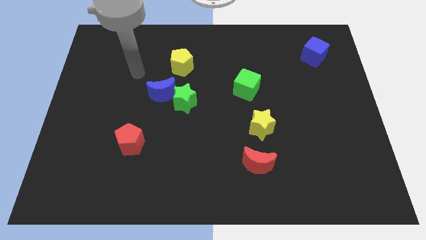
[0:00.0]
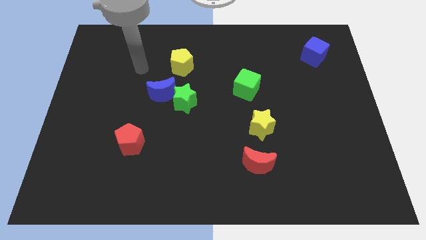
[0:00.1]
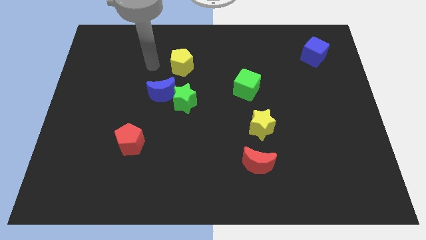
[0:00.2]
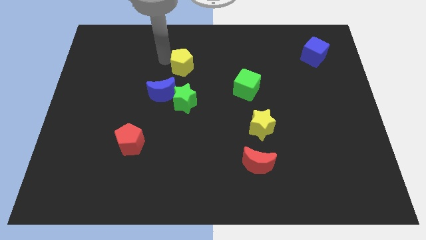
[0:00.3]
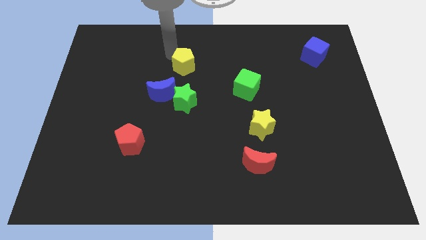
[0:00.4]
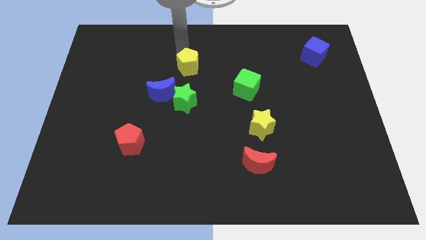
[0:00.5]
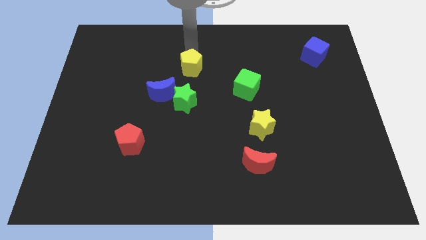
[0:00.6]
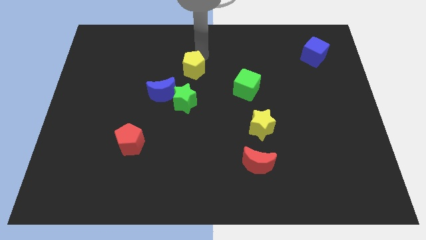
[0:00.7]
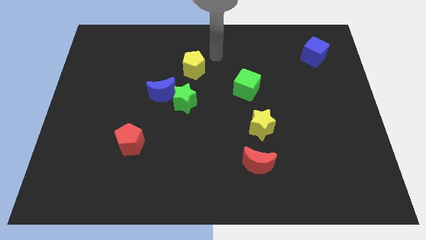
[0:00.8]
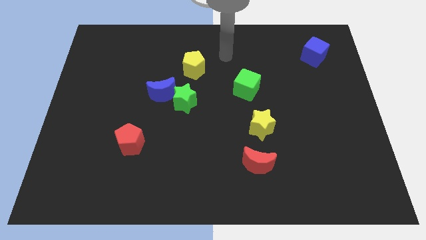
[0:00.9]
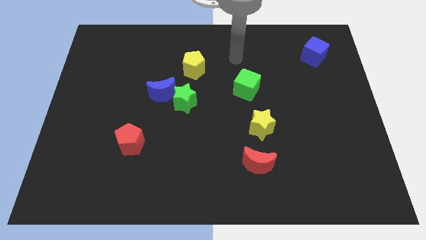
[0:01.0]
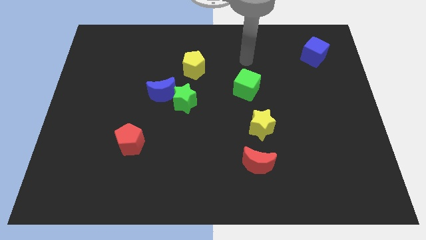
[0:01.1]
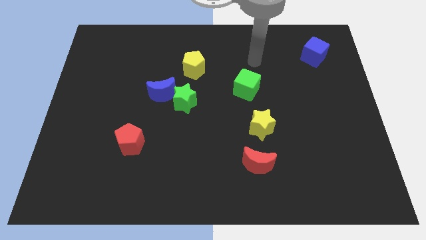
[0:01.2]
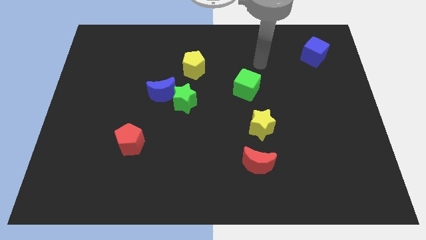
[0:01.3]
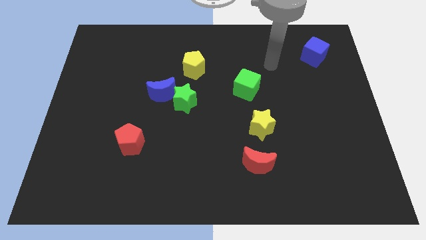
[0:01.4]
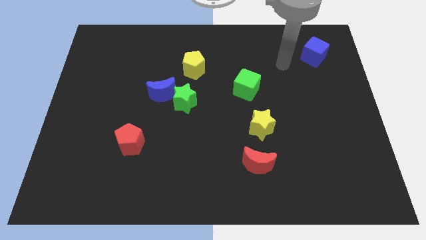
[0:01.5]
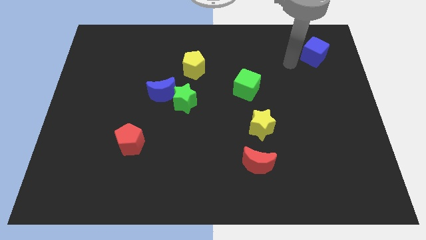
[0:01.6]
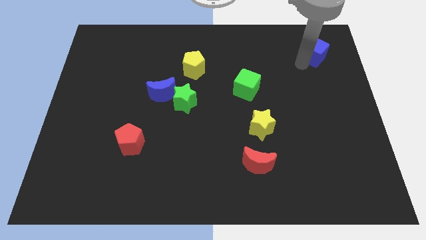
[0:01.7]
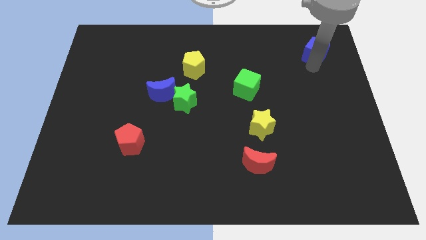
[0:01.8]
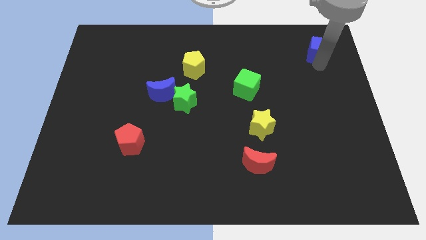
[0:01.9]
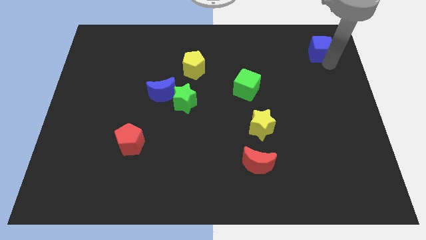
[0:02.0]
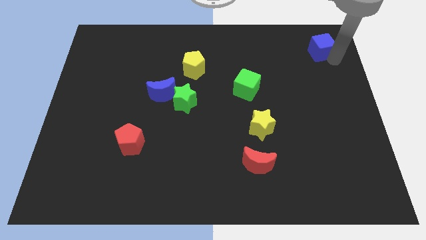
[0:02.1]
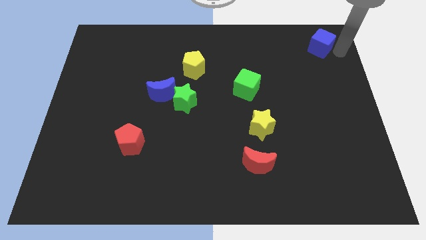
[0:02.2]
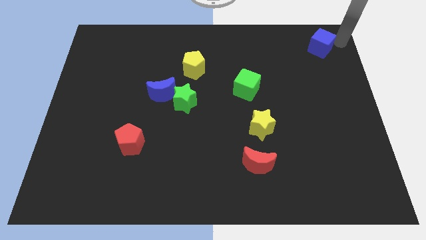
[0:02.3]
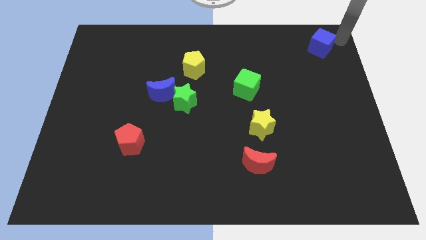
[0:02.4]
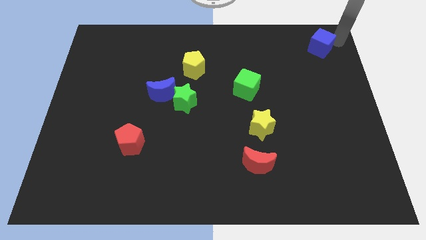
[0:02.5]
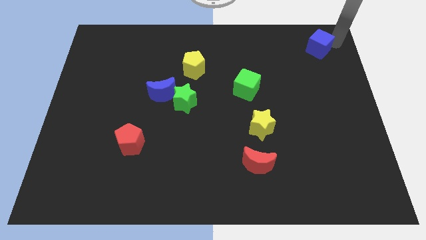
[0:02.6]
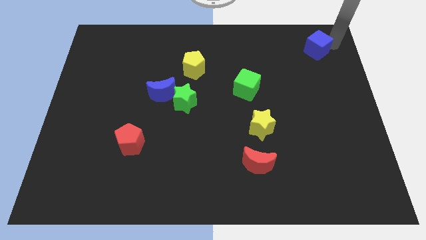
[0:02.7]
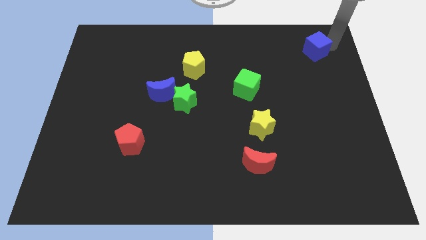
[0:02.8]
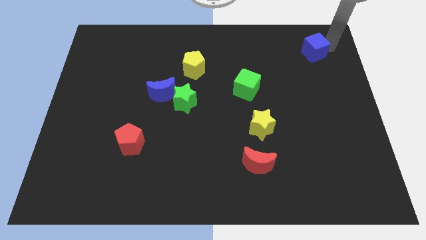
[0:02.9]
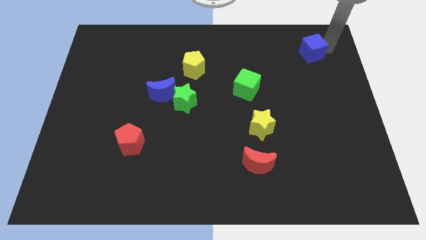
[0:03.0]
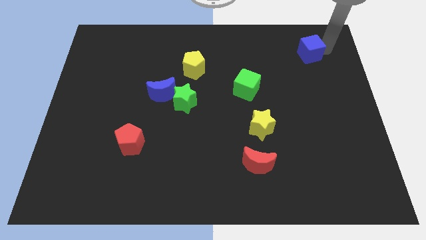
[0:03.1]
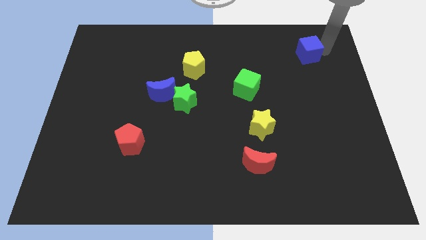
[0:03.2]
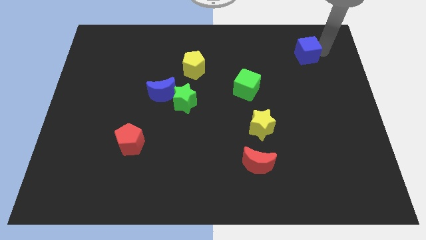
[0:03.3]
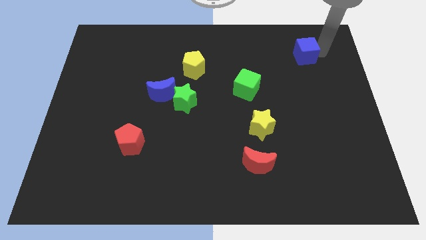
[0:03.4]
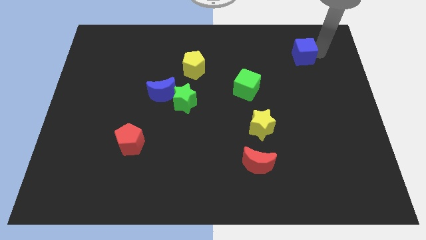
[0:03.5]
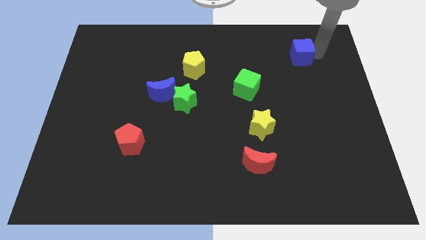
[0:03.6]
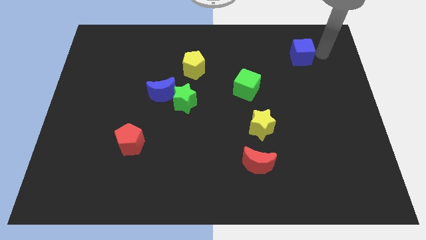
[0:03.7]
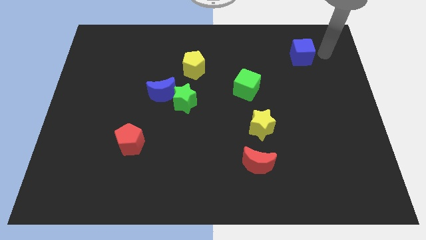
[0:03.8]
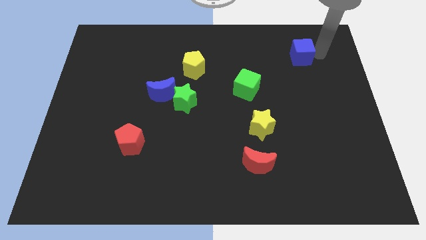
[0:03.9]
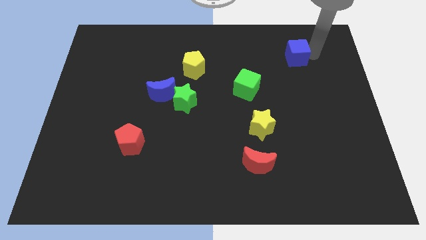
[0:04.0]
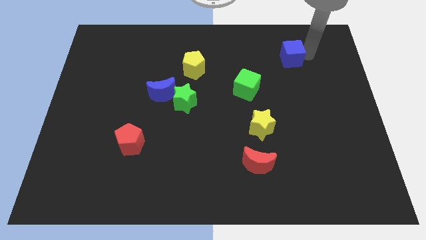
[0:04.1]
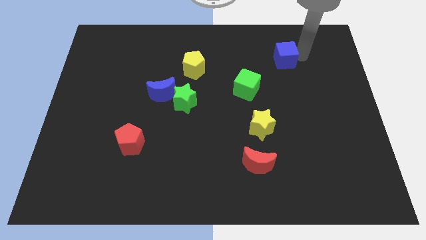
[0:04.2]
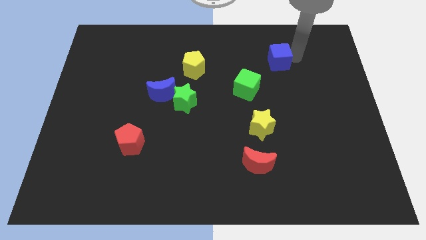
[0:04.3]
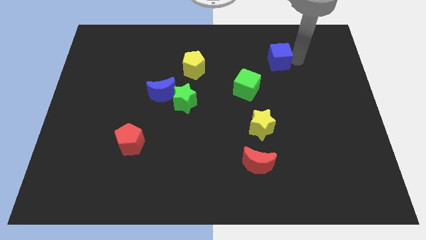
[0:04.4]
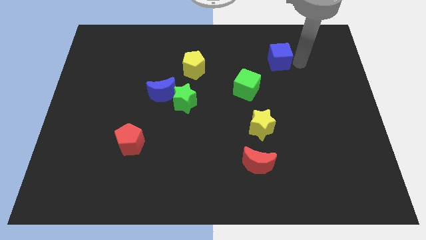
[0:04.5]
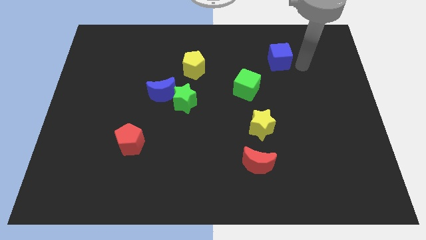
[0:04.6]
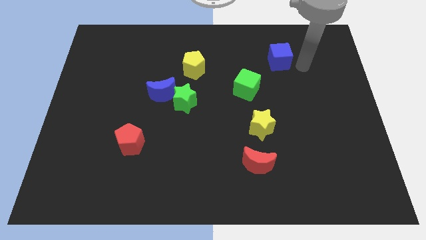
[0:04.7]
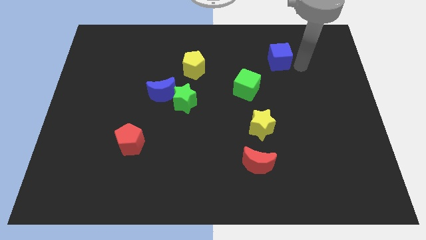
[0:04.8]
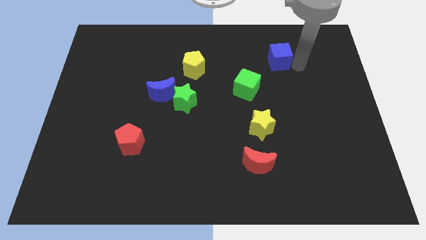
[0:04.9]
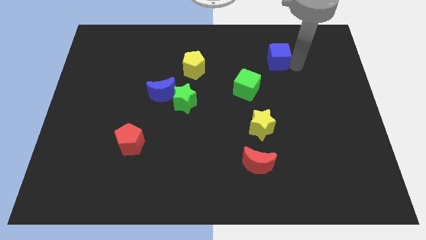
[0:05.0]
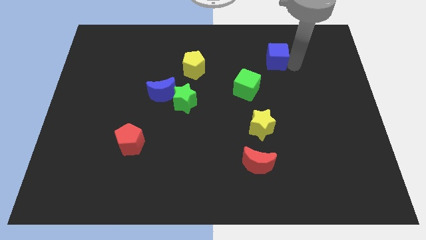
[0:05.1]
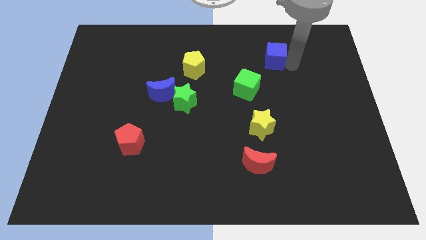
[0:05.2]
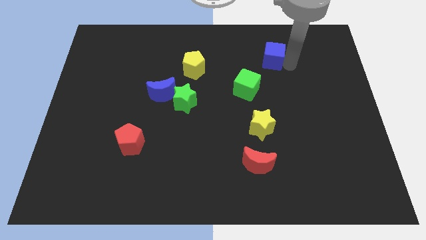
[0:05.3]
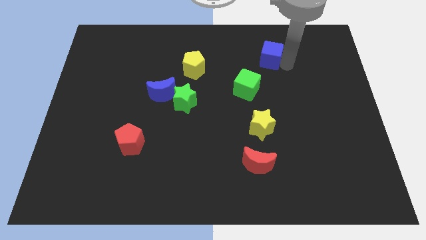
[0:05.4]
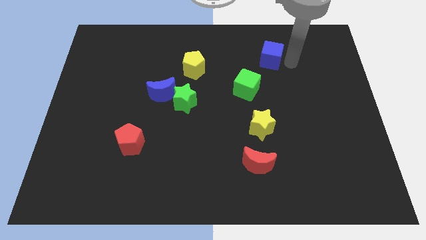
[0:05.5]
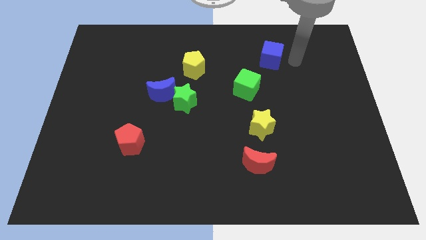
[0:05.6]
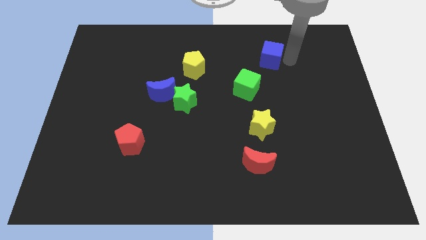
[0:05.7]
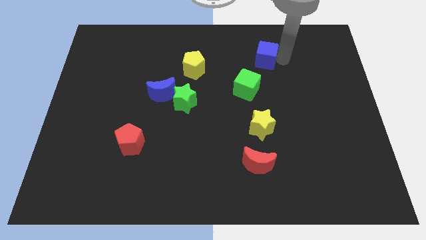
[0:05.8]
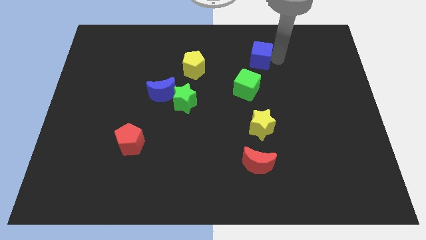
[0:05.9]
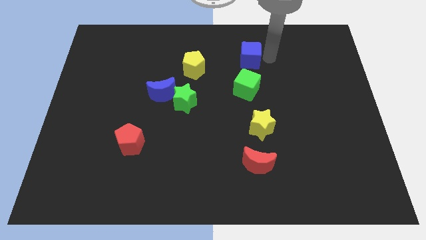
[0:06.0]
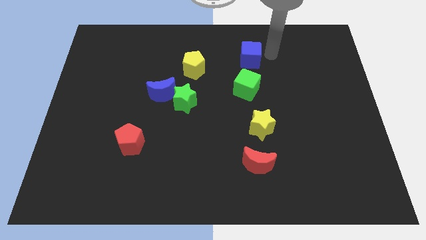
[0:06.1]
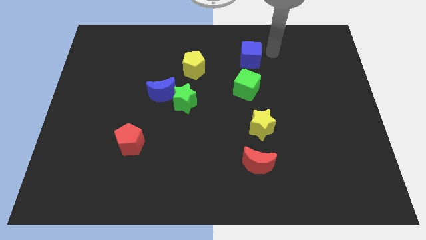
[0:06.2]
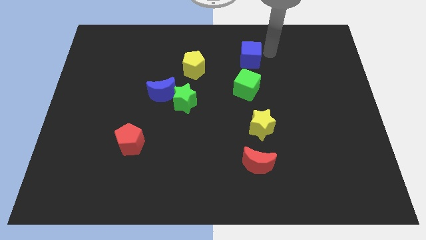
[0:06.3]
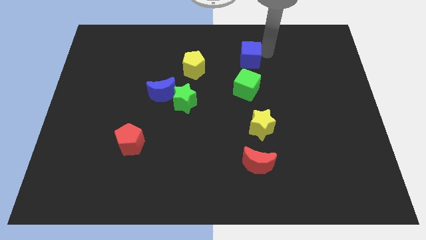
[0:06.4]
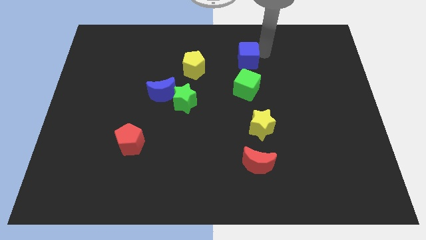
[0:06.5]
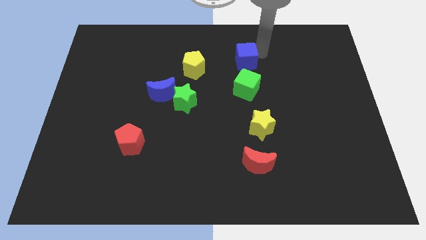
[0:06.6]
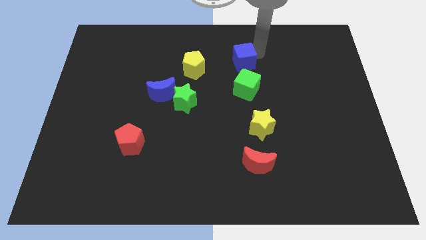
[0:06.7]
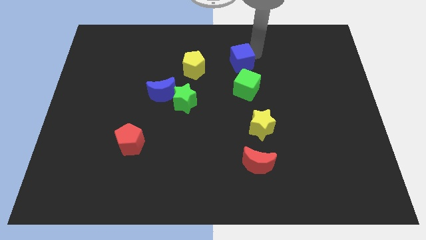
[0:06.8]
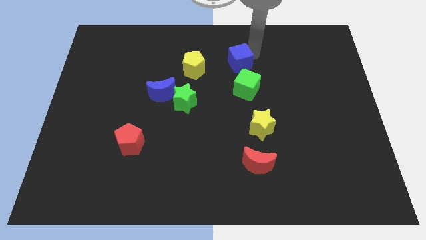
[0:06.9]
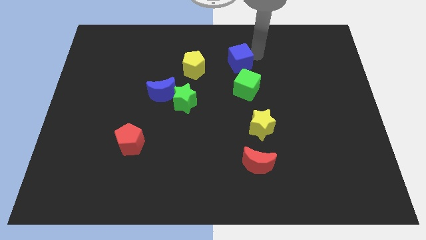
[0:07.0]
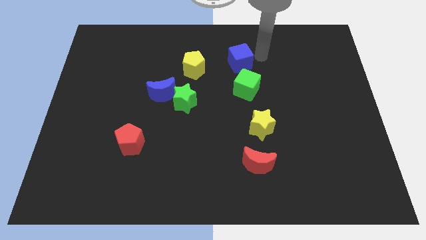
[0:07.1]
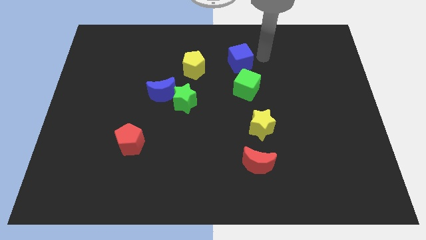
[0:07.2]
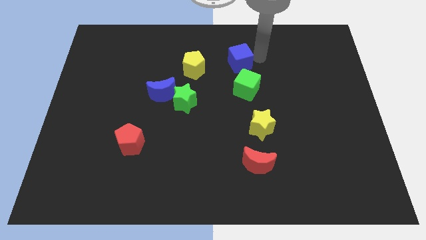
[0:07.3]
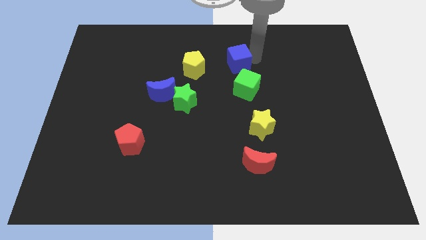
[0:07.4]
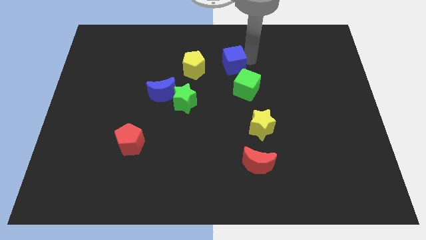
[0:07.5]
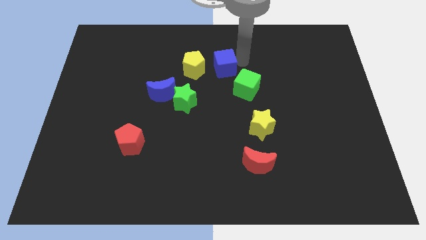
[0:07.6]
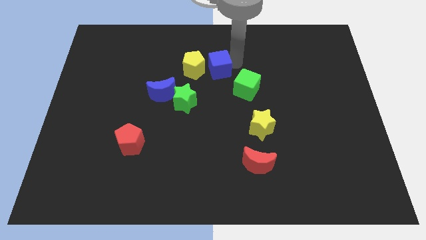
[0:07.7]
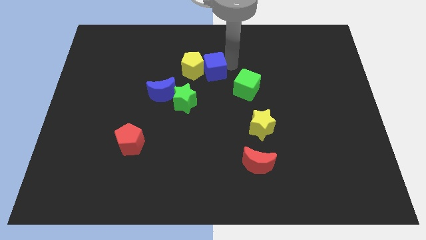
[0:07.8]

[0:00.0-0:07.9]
push the blue cube next to the yellow pentagon
